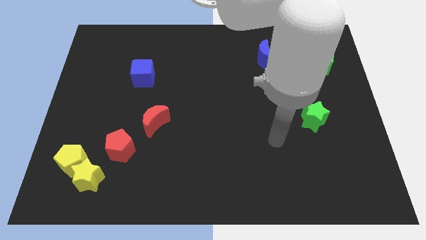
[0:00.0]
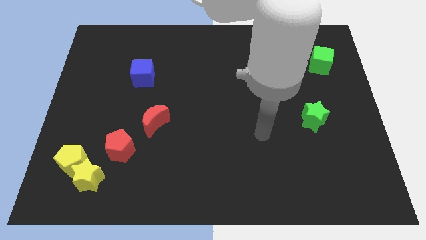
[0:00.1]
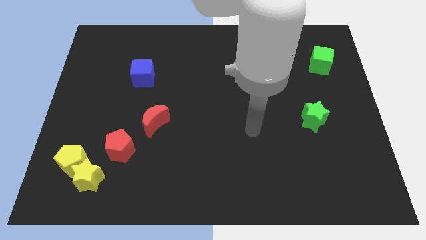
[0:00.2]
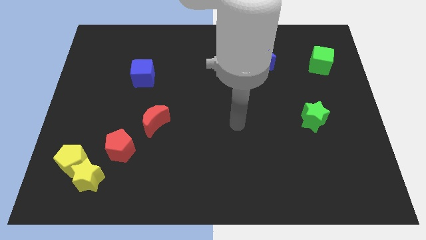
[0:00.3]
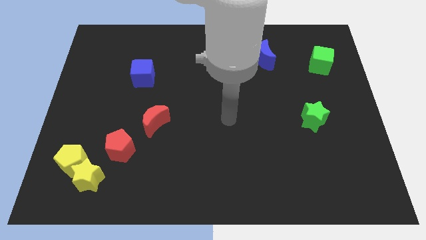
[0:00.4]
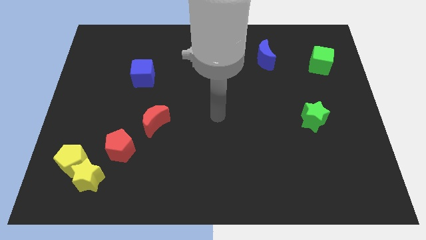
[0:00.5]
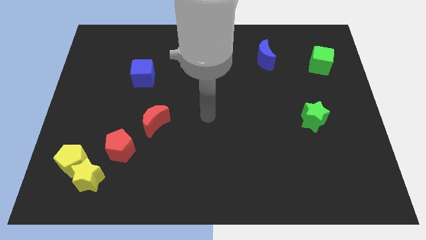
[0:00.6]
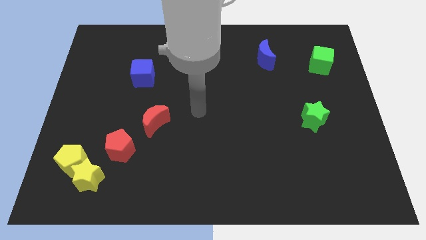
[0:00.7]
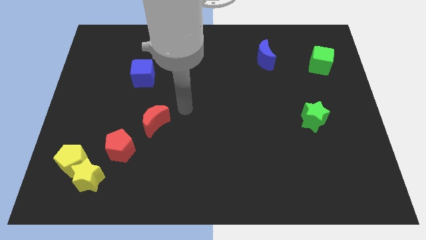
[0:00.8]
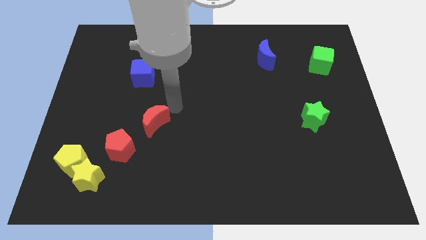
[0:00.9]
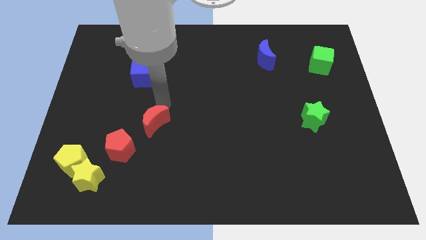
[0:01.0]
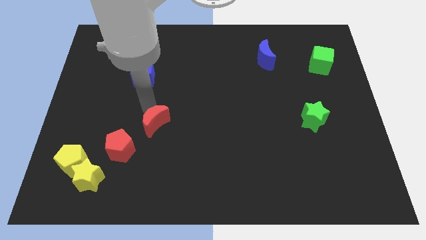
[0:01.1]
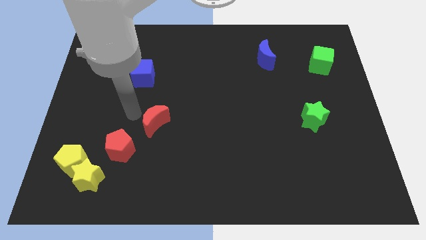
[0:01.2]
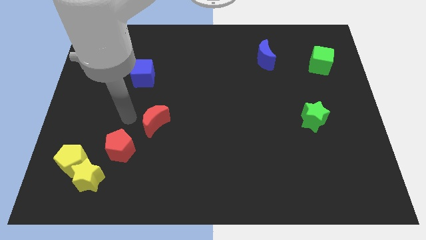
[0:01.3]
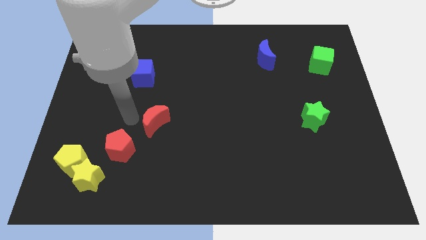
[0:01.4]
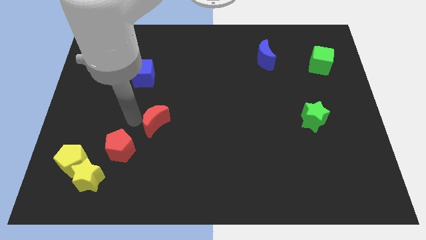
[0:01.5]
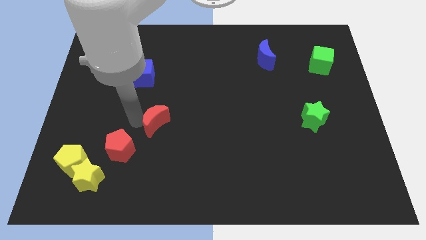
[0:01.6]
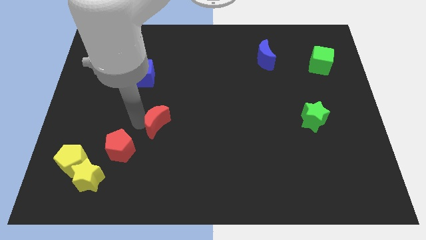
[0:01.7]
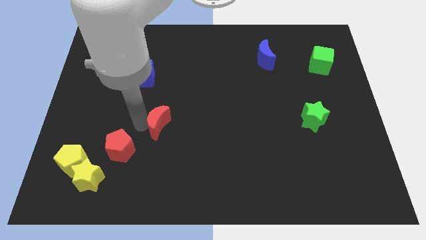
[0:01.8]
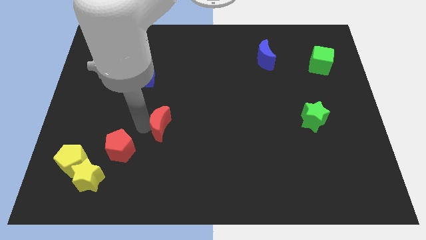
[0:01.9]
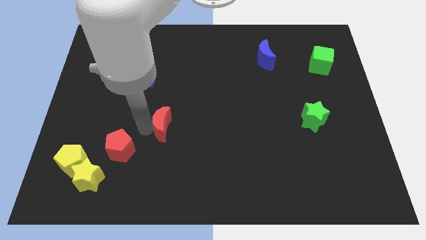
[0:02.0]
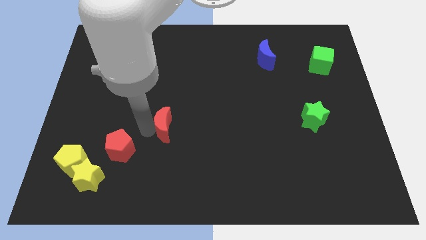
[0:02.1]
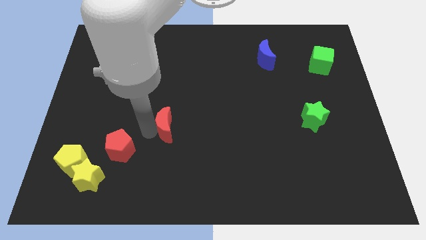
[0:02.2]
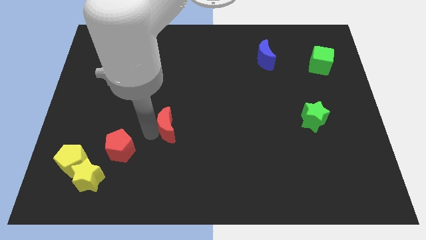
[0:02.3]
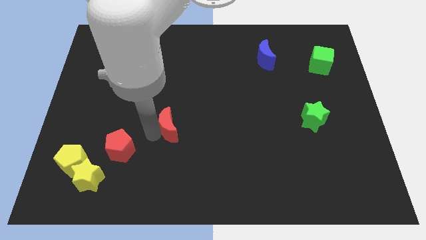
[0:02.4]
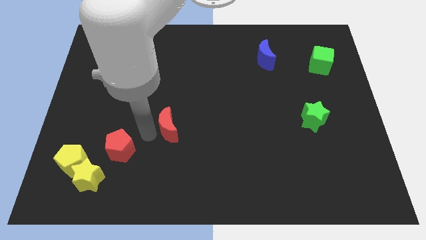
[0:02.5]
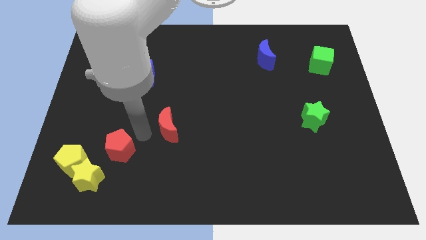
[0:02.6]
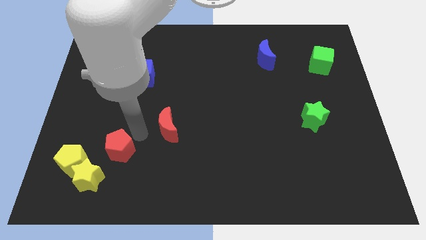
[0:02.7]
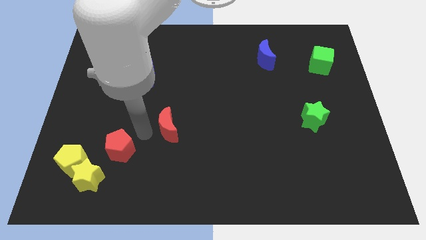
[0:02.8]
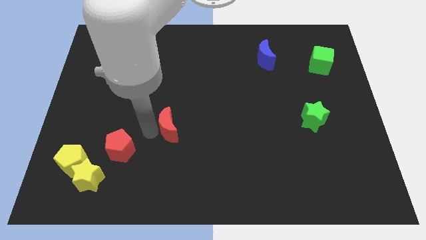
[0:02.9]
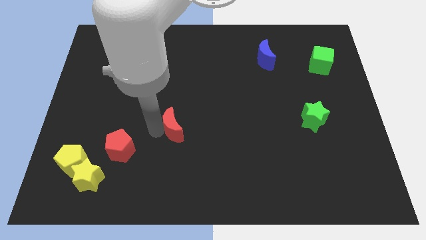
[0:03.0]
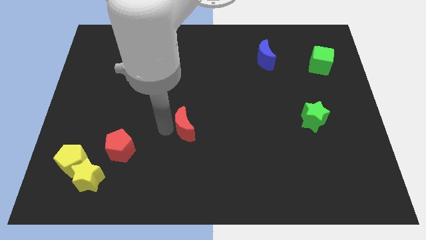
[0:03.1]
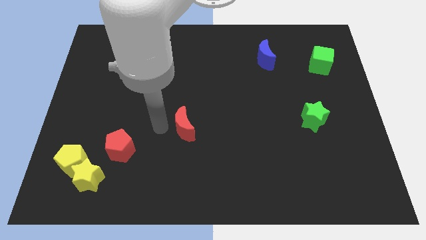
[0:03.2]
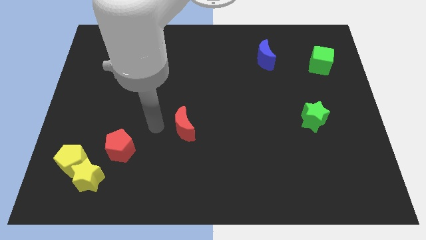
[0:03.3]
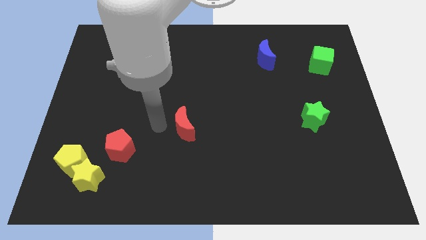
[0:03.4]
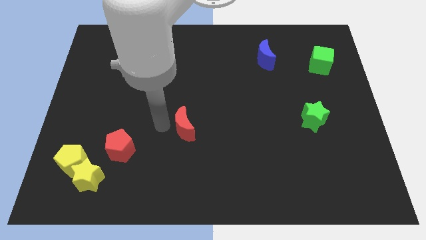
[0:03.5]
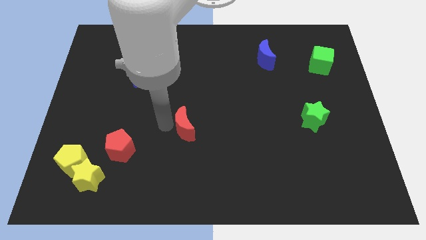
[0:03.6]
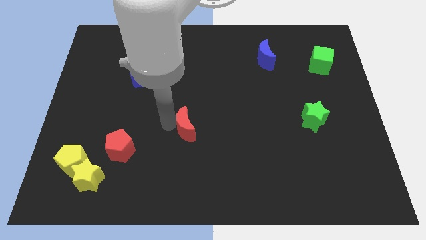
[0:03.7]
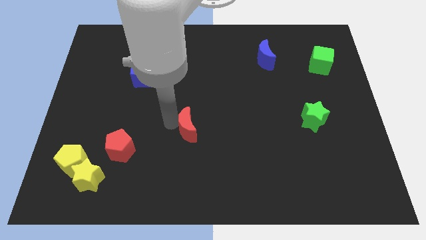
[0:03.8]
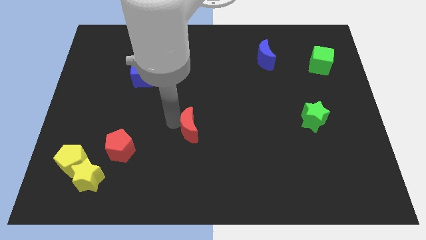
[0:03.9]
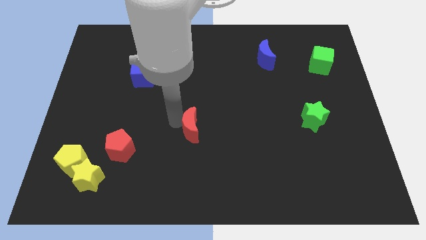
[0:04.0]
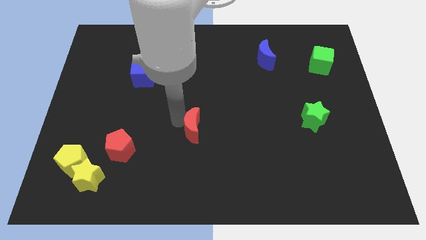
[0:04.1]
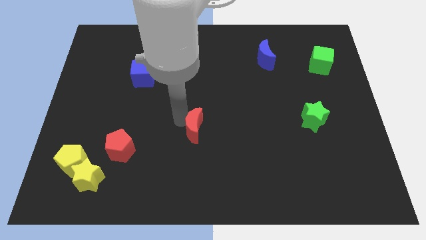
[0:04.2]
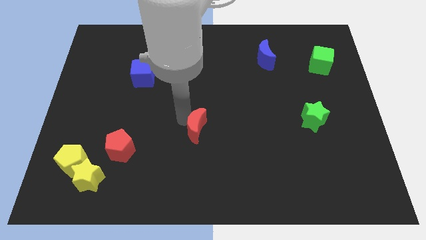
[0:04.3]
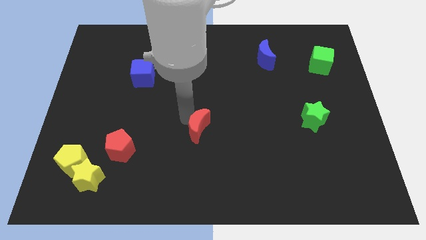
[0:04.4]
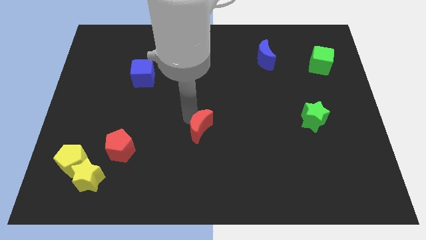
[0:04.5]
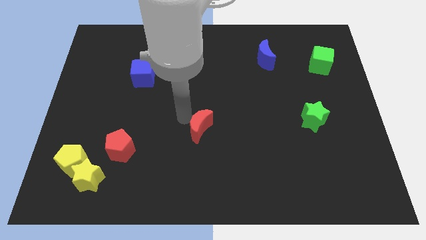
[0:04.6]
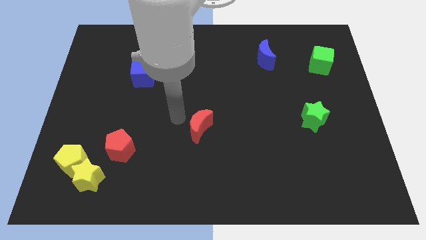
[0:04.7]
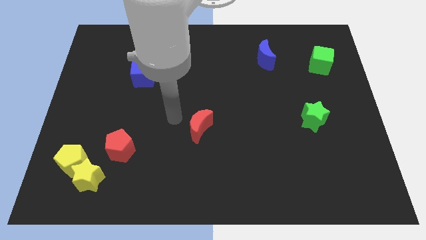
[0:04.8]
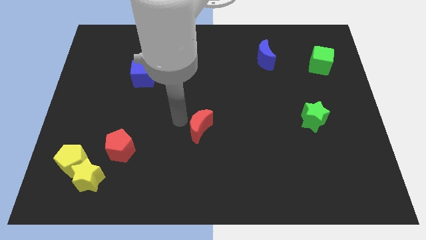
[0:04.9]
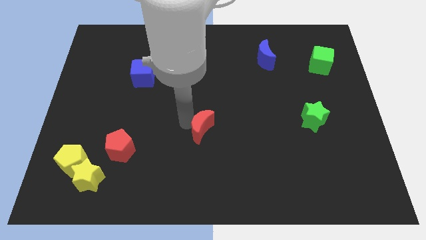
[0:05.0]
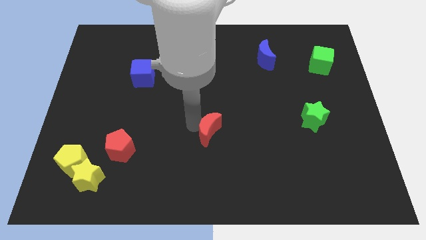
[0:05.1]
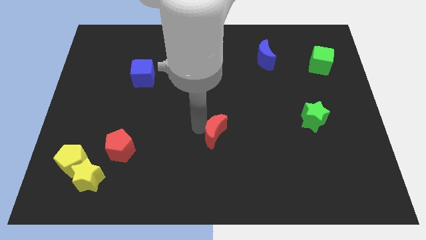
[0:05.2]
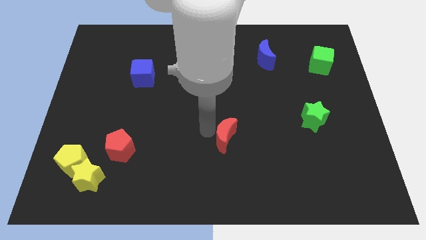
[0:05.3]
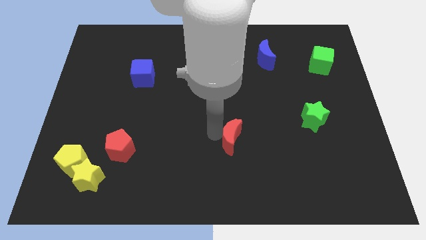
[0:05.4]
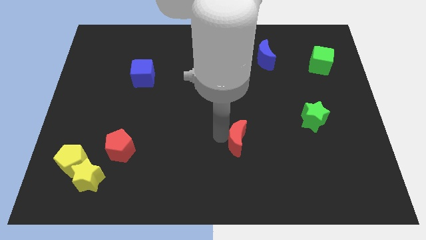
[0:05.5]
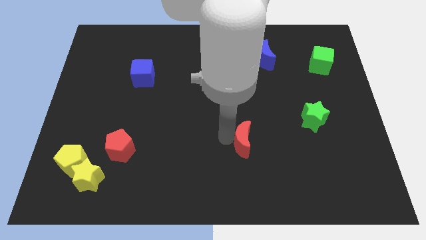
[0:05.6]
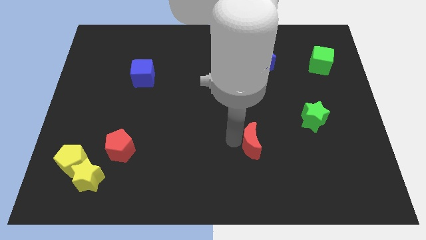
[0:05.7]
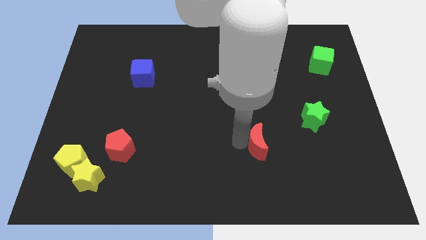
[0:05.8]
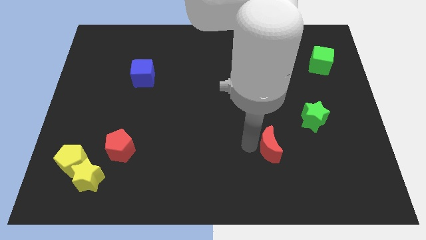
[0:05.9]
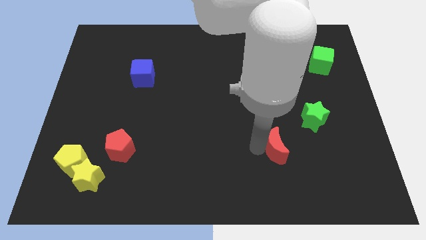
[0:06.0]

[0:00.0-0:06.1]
slide the red moon to the bottom left of the green star

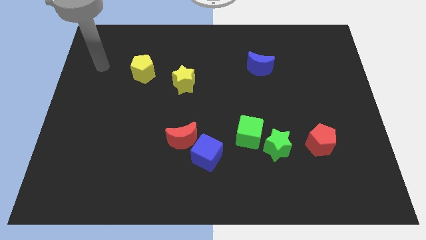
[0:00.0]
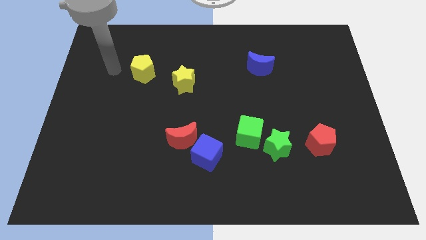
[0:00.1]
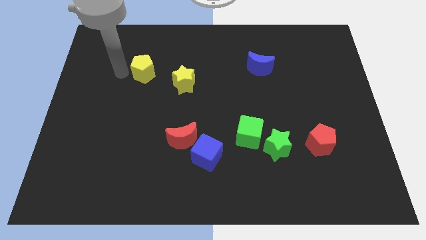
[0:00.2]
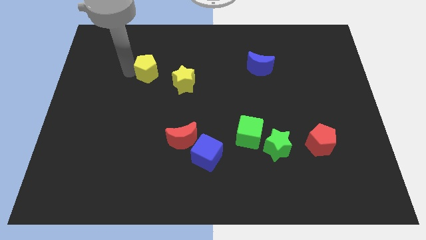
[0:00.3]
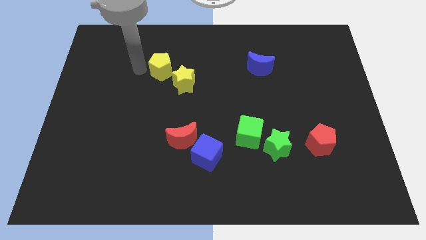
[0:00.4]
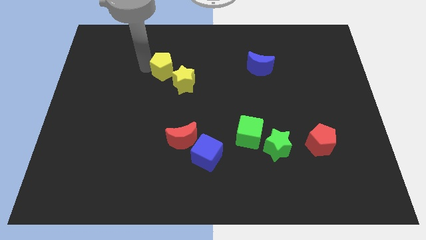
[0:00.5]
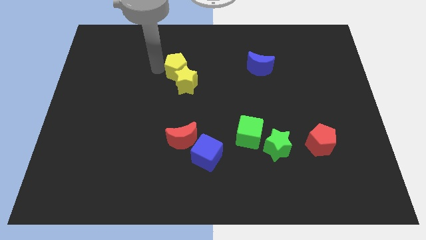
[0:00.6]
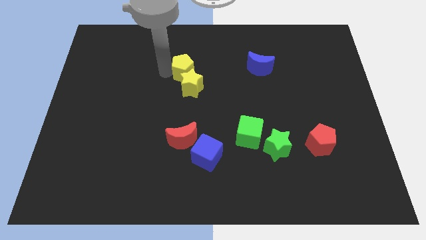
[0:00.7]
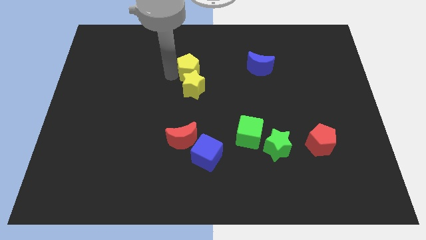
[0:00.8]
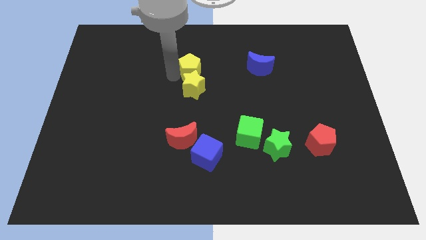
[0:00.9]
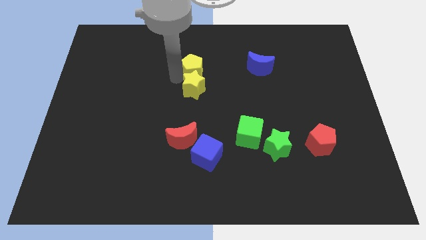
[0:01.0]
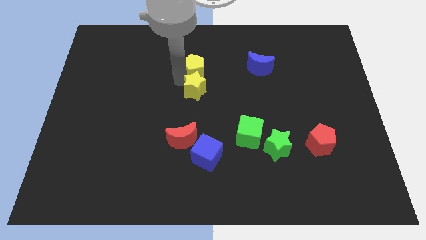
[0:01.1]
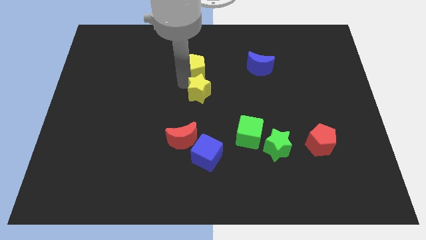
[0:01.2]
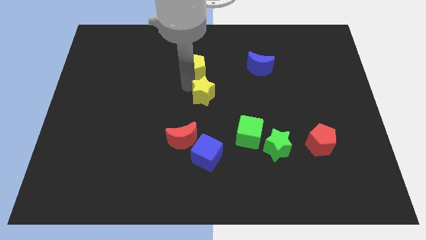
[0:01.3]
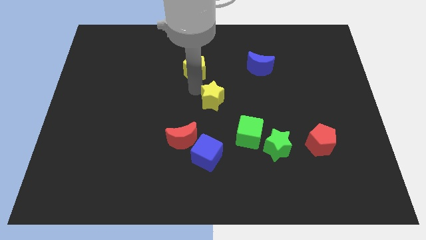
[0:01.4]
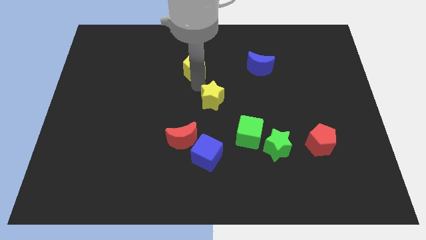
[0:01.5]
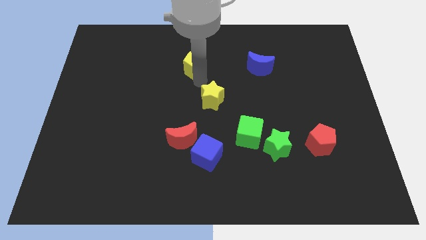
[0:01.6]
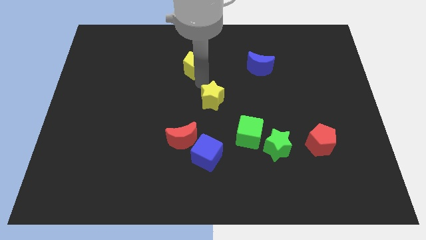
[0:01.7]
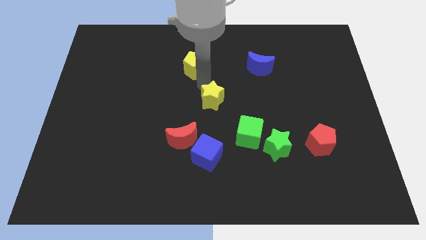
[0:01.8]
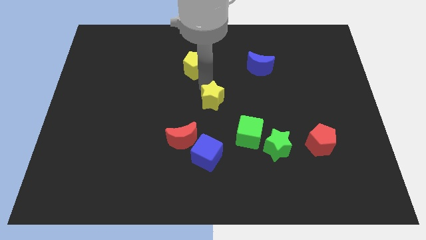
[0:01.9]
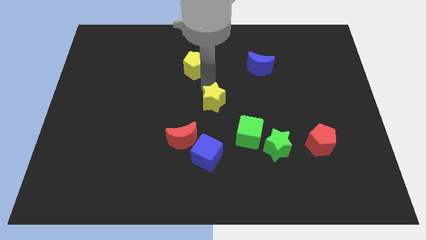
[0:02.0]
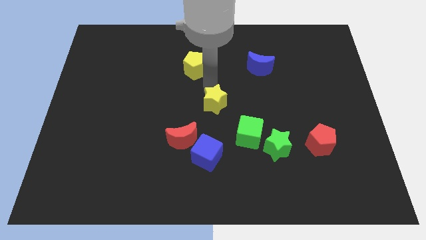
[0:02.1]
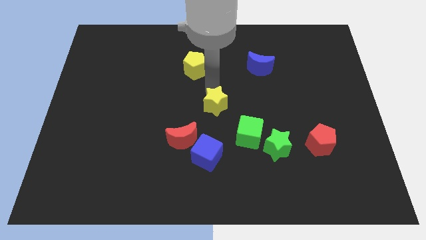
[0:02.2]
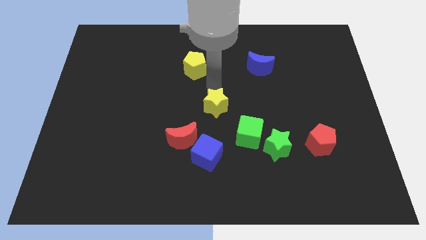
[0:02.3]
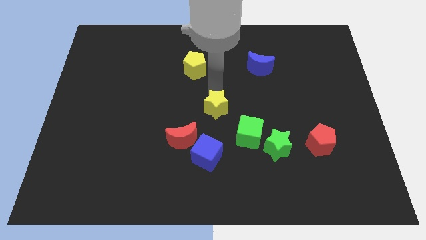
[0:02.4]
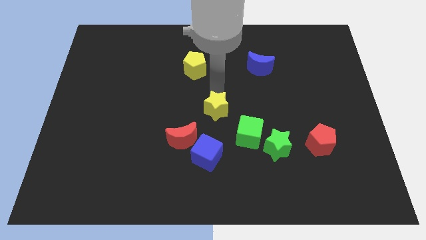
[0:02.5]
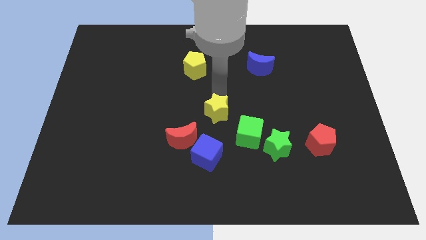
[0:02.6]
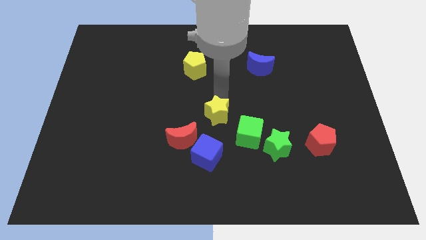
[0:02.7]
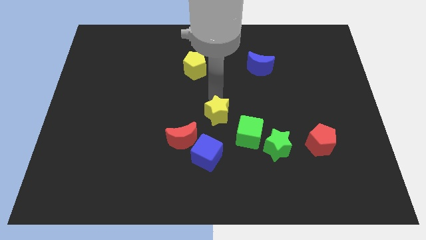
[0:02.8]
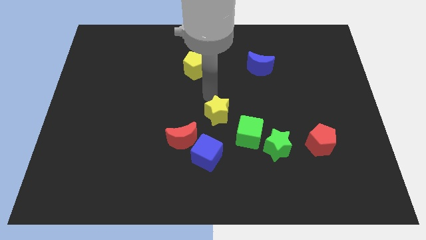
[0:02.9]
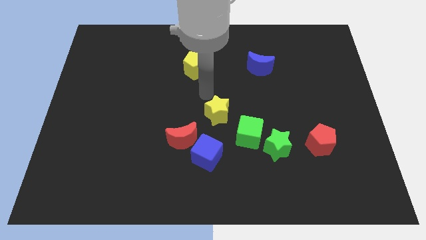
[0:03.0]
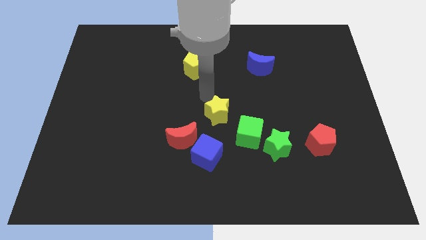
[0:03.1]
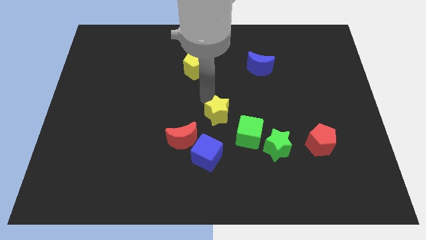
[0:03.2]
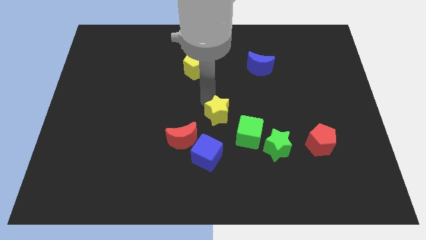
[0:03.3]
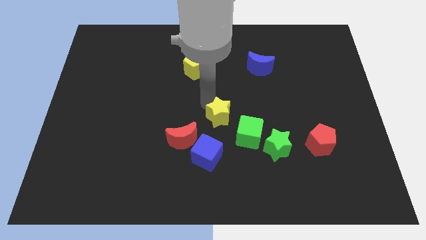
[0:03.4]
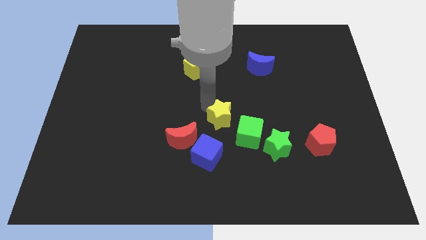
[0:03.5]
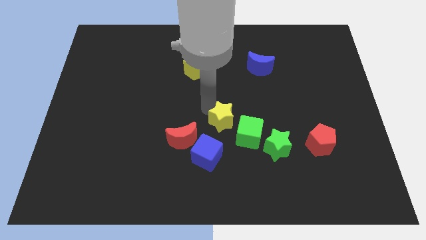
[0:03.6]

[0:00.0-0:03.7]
move the yellow star diagonally up and to the right of the blue cube
